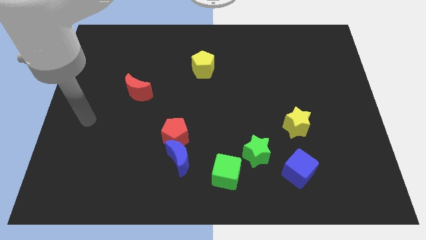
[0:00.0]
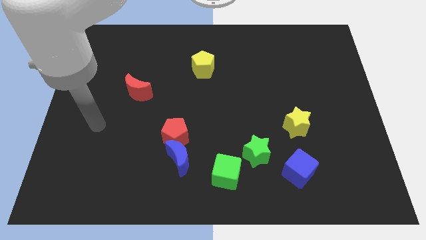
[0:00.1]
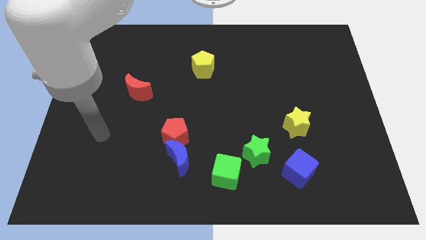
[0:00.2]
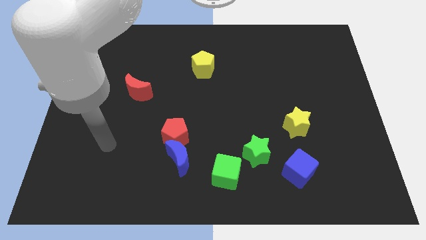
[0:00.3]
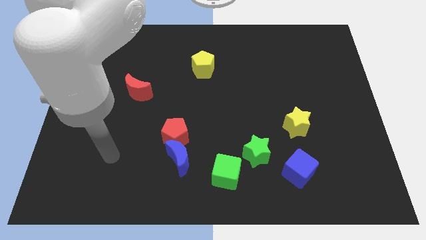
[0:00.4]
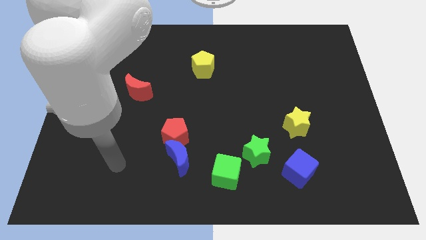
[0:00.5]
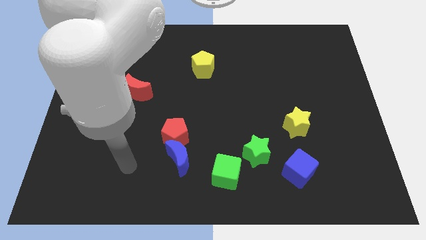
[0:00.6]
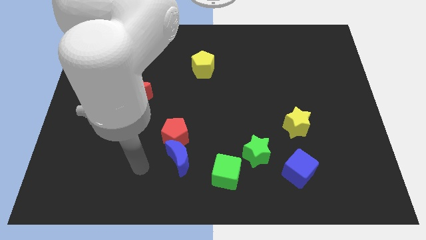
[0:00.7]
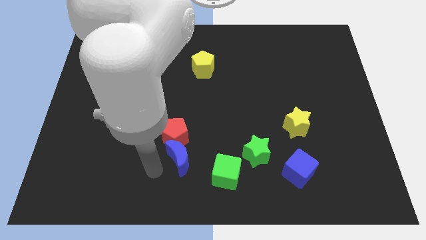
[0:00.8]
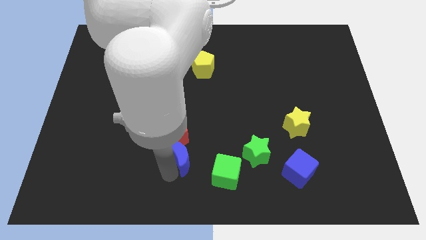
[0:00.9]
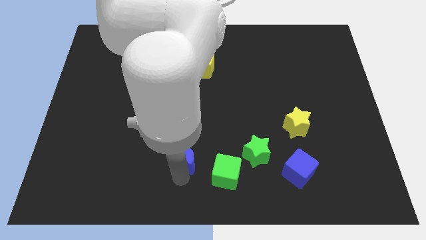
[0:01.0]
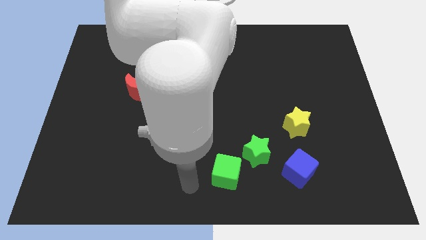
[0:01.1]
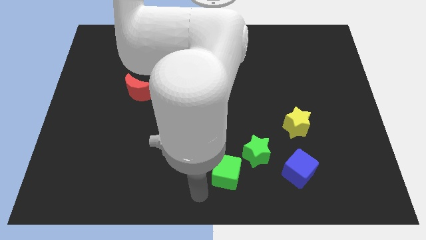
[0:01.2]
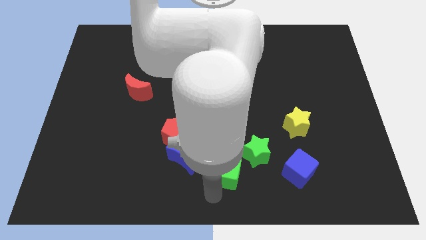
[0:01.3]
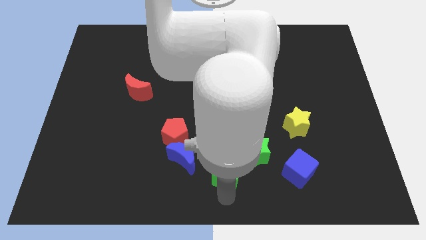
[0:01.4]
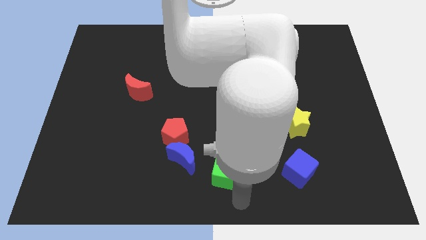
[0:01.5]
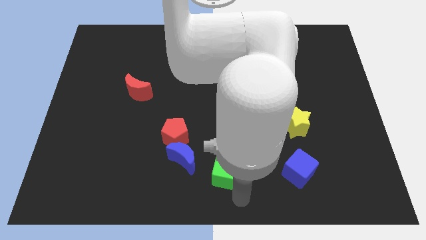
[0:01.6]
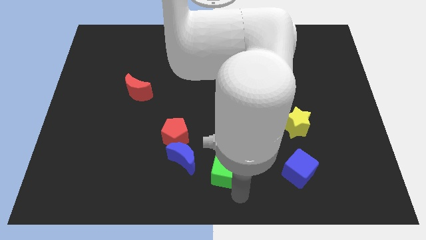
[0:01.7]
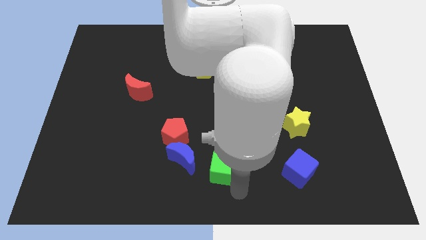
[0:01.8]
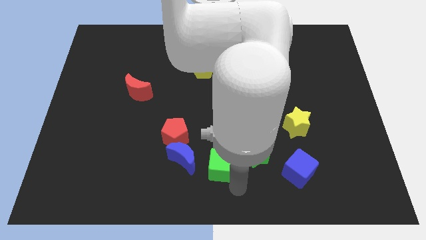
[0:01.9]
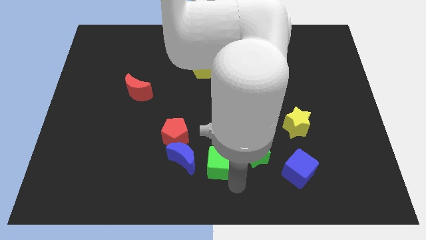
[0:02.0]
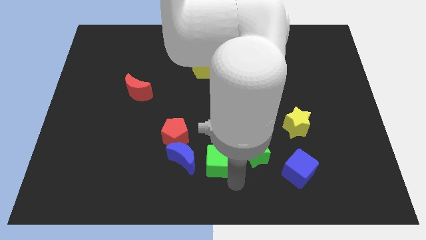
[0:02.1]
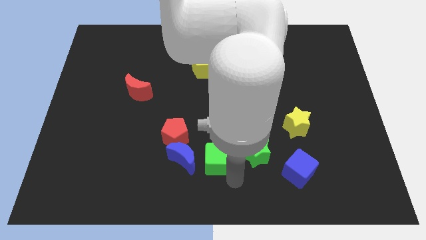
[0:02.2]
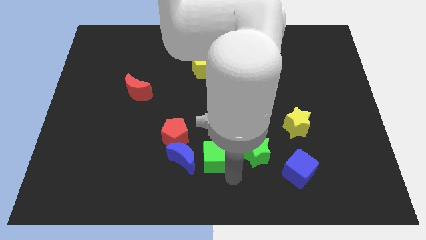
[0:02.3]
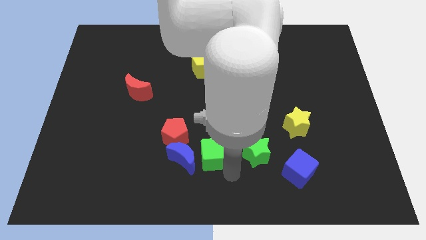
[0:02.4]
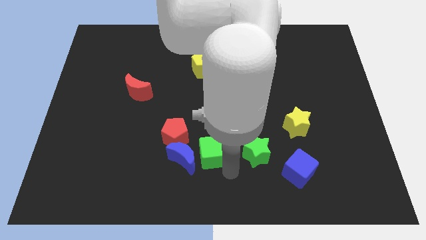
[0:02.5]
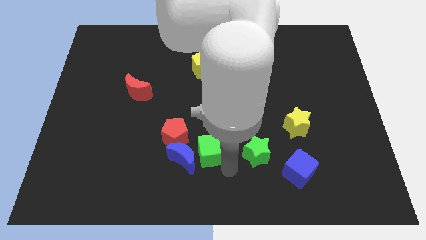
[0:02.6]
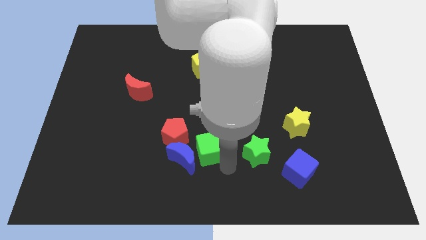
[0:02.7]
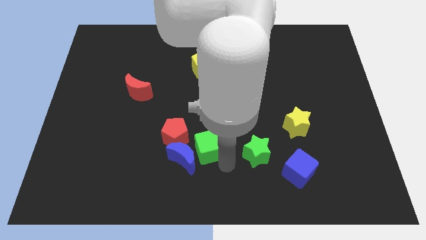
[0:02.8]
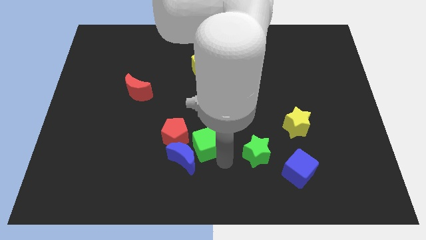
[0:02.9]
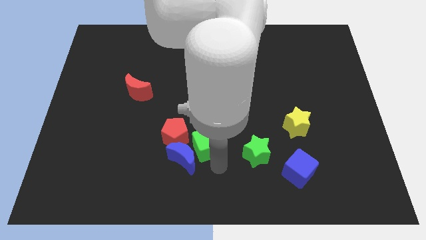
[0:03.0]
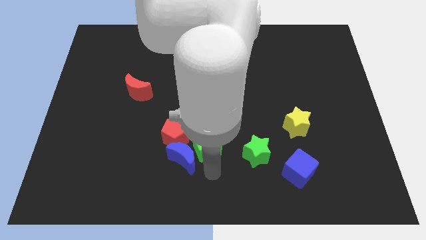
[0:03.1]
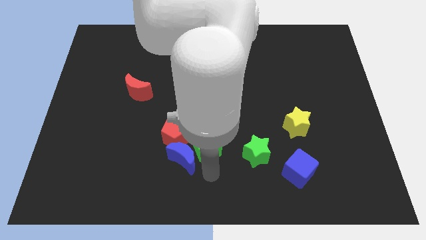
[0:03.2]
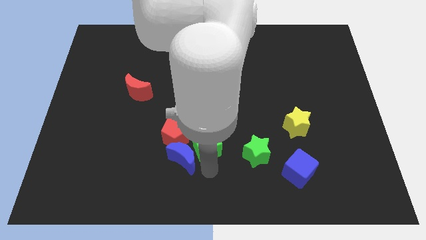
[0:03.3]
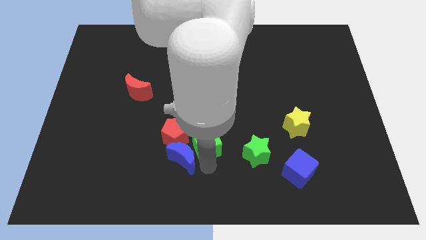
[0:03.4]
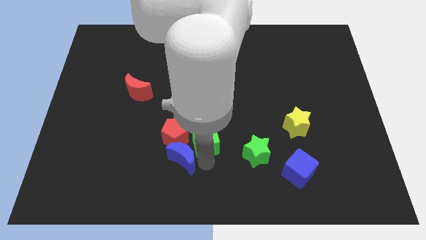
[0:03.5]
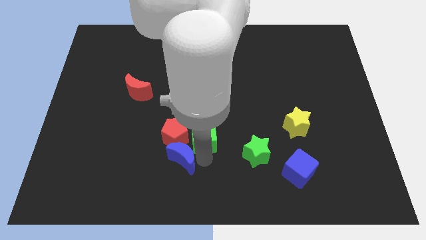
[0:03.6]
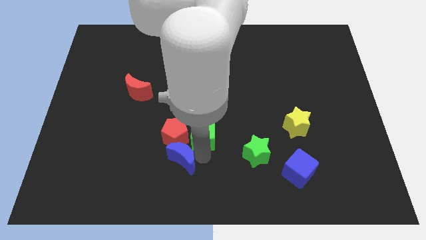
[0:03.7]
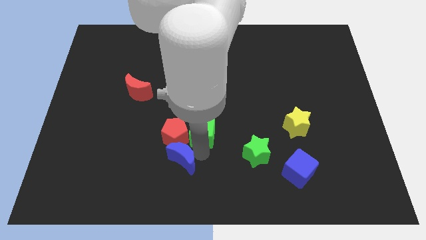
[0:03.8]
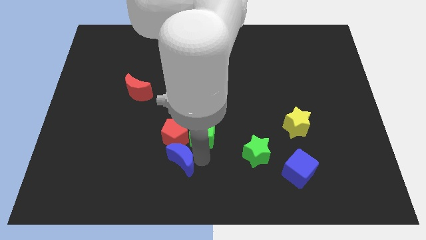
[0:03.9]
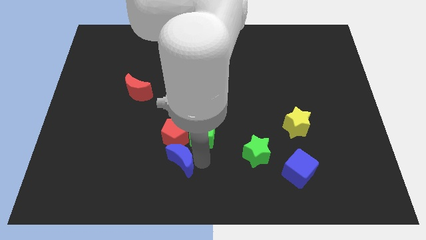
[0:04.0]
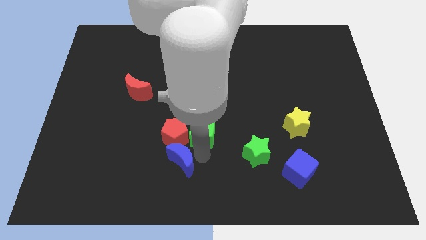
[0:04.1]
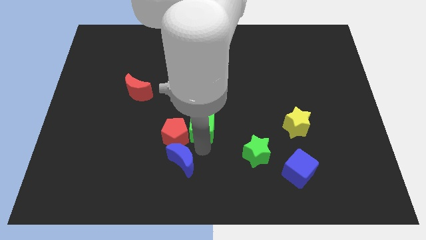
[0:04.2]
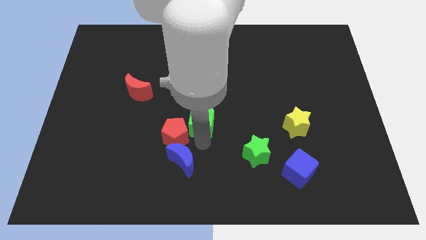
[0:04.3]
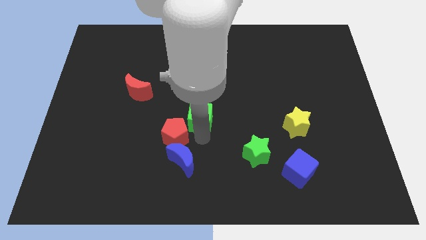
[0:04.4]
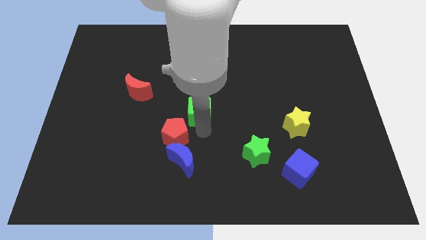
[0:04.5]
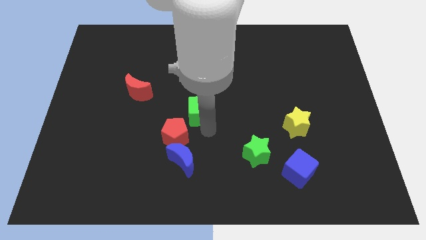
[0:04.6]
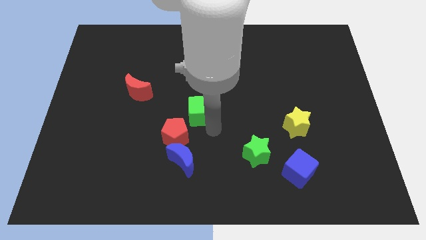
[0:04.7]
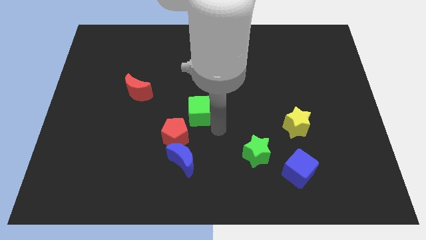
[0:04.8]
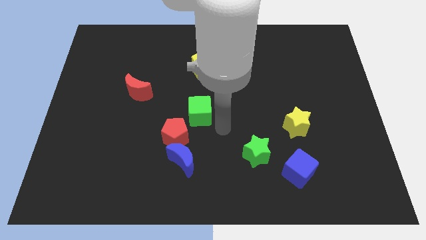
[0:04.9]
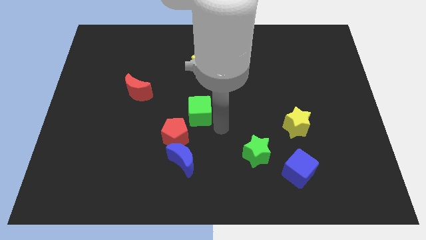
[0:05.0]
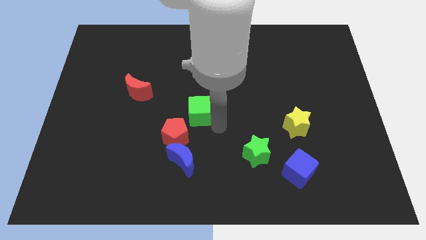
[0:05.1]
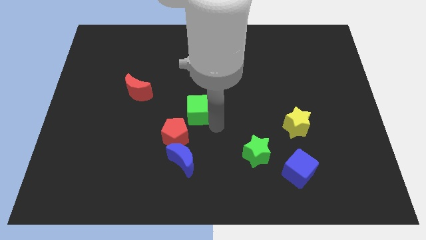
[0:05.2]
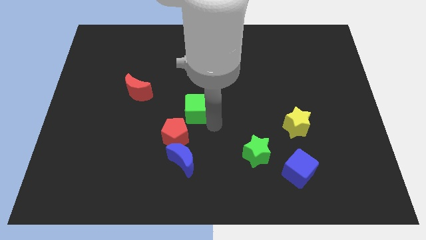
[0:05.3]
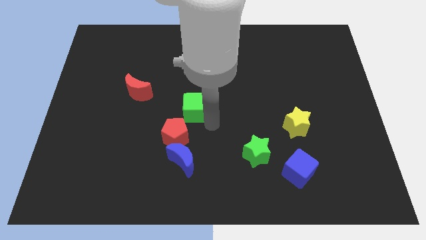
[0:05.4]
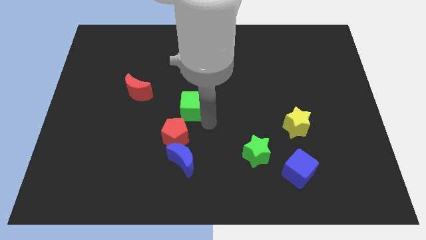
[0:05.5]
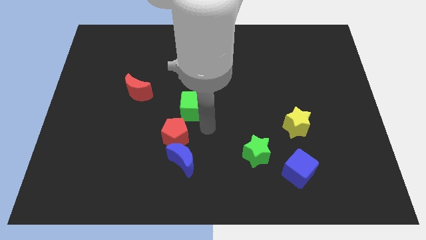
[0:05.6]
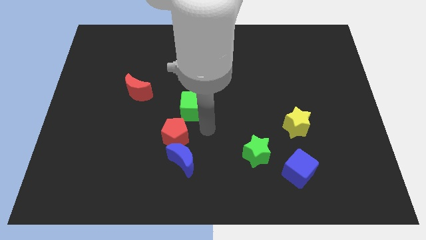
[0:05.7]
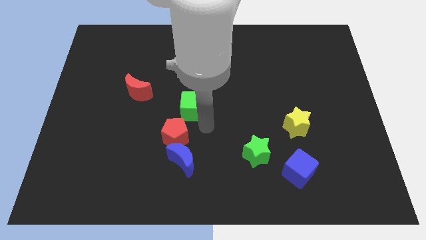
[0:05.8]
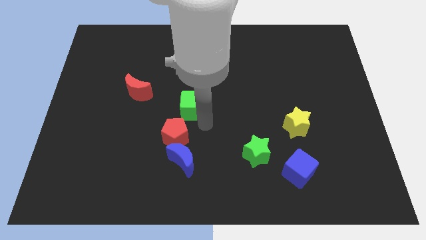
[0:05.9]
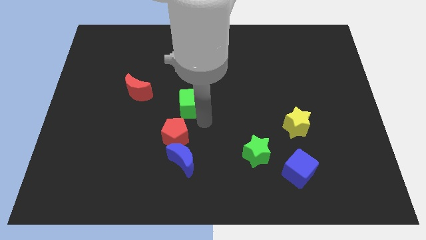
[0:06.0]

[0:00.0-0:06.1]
push the green cube just right of the red moon

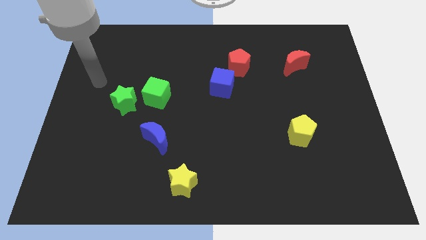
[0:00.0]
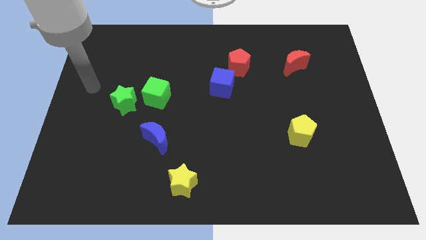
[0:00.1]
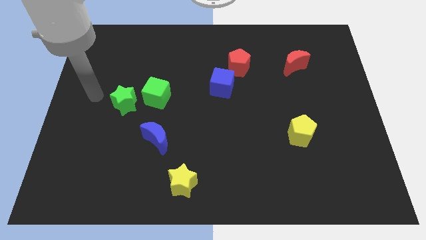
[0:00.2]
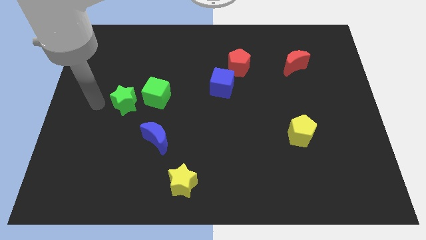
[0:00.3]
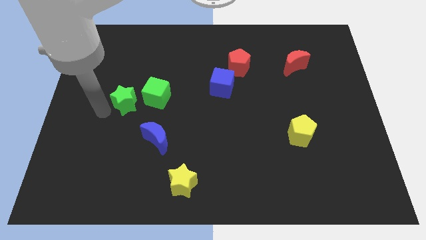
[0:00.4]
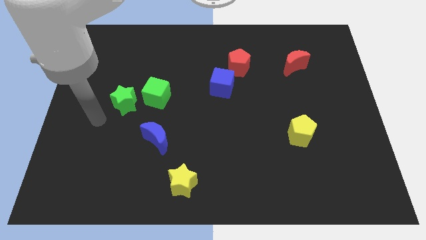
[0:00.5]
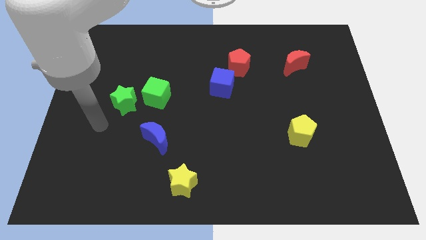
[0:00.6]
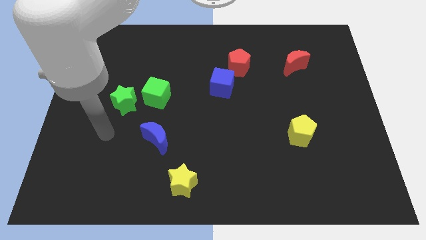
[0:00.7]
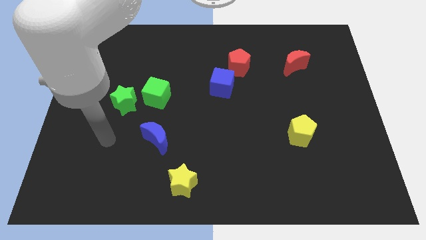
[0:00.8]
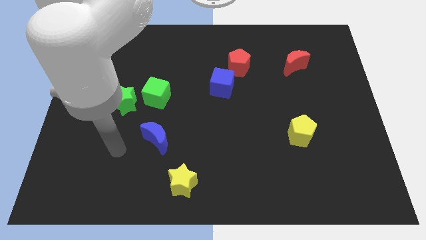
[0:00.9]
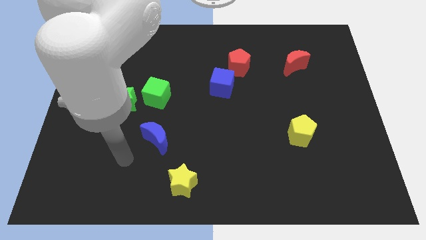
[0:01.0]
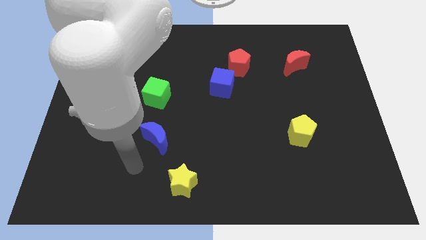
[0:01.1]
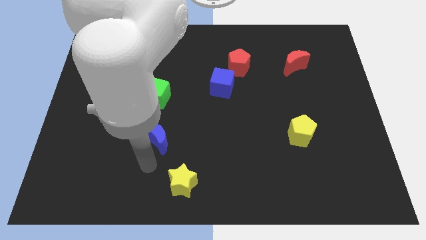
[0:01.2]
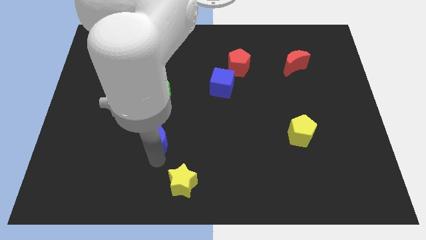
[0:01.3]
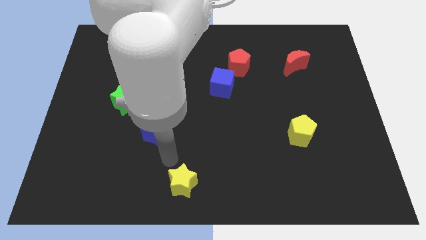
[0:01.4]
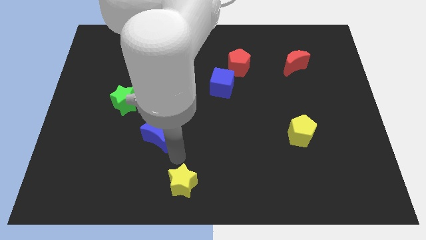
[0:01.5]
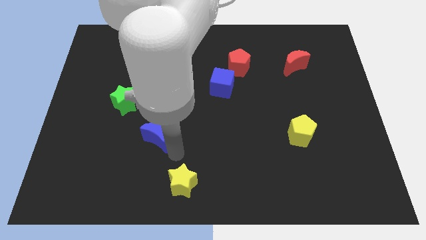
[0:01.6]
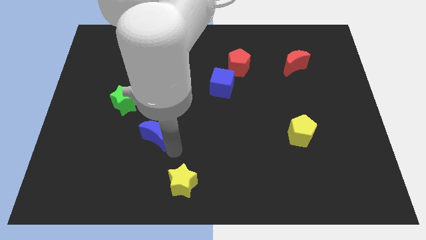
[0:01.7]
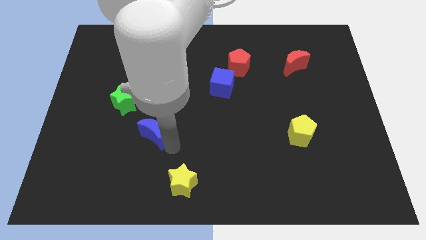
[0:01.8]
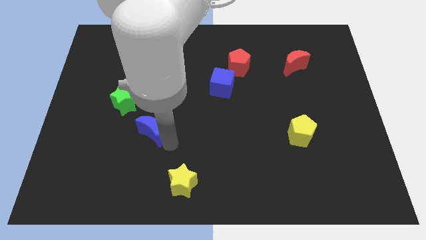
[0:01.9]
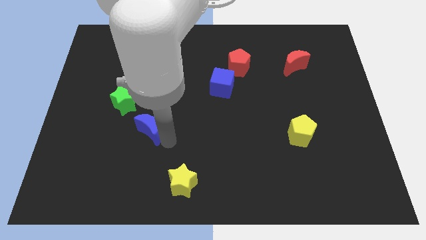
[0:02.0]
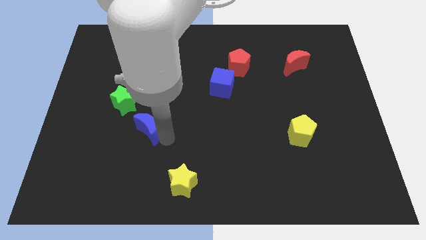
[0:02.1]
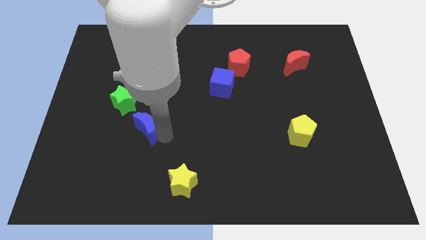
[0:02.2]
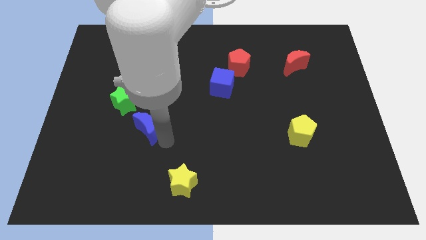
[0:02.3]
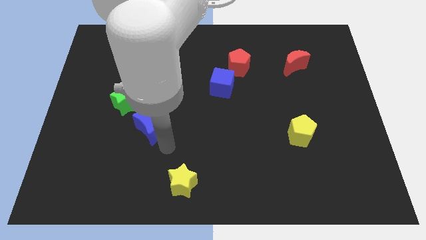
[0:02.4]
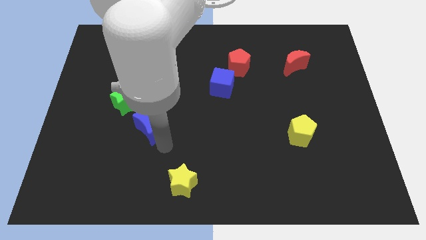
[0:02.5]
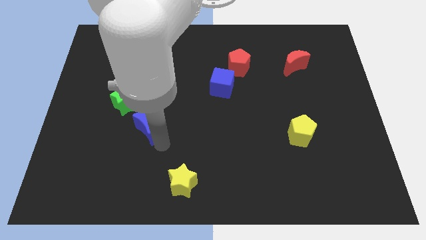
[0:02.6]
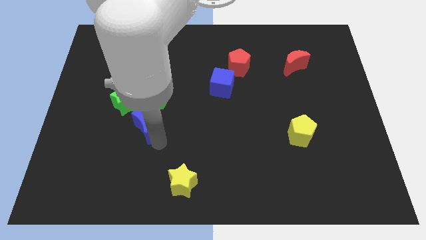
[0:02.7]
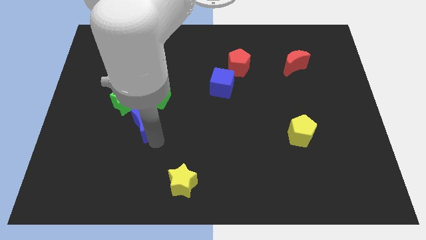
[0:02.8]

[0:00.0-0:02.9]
slide the blue moon to the bottom left side of the green cube
